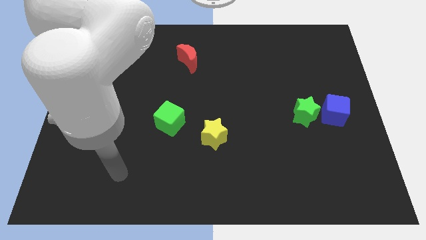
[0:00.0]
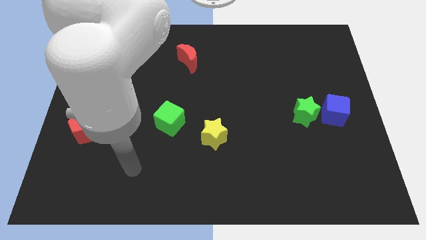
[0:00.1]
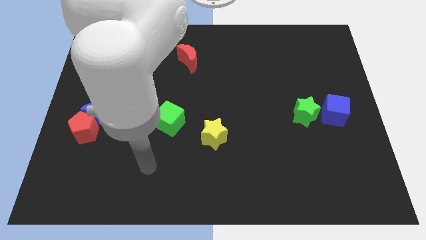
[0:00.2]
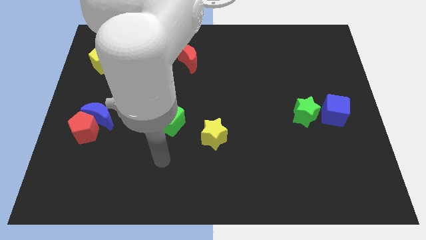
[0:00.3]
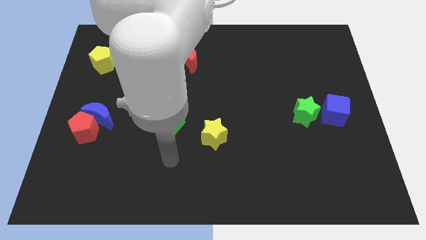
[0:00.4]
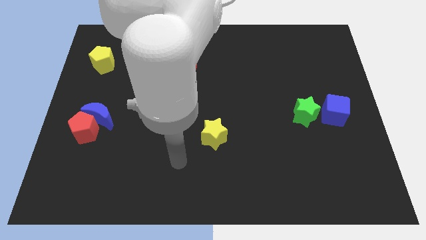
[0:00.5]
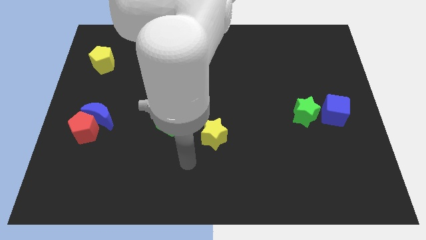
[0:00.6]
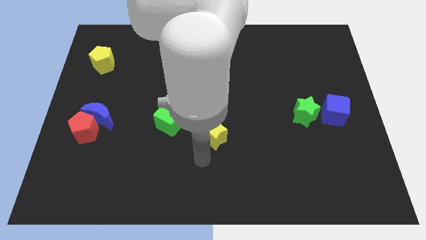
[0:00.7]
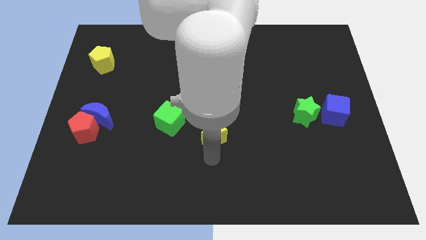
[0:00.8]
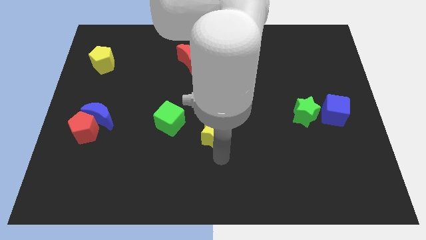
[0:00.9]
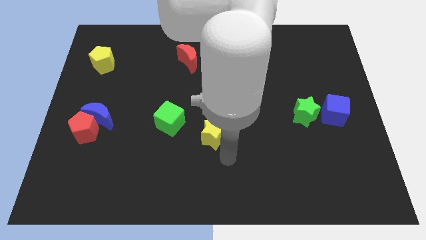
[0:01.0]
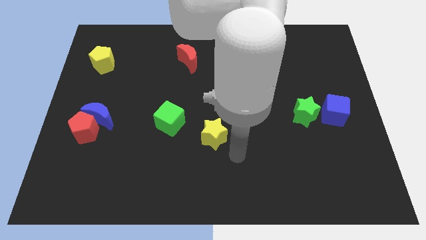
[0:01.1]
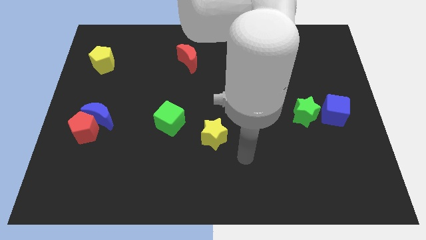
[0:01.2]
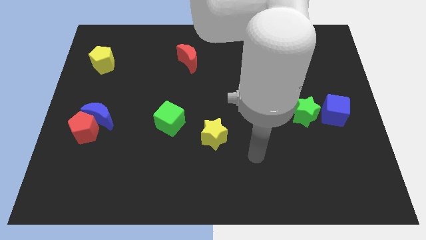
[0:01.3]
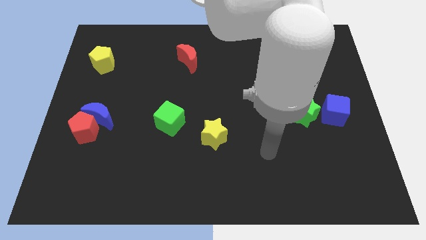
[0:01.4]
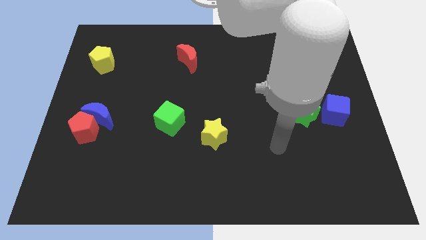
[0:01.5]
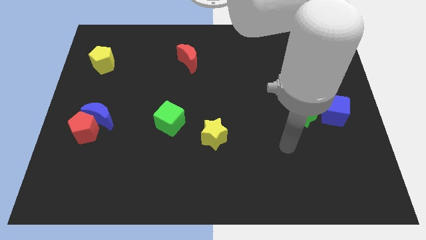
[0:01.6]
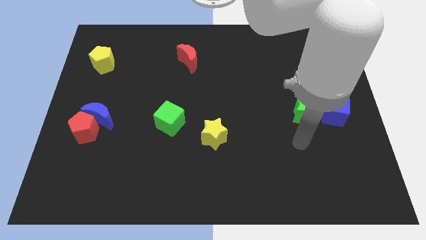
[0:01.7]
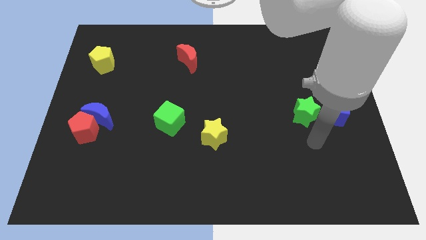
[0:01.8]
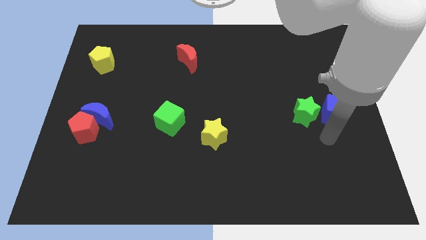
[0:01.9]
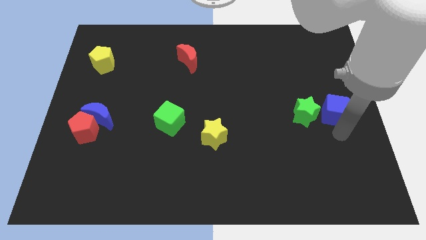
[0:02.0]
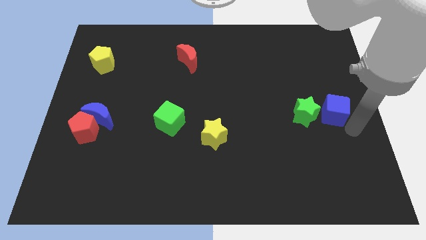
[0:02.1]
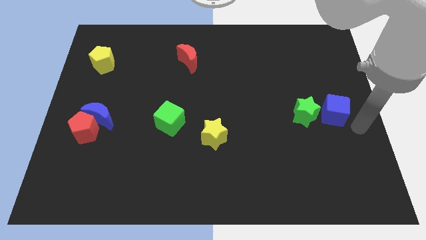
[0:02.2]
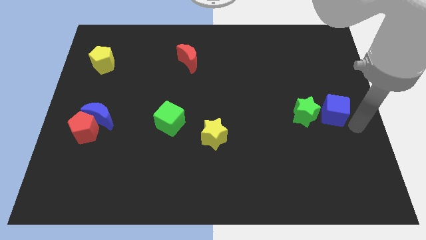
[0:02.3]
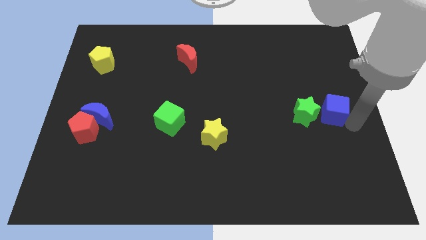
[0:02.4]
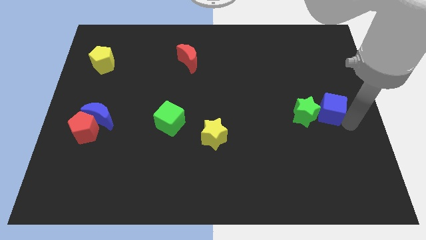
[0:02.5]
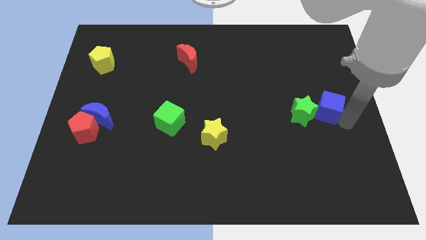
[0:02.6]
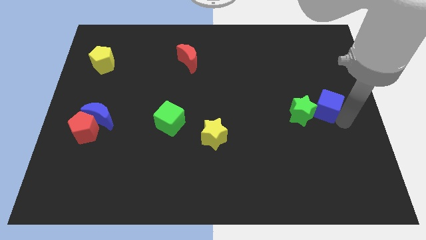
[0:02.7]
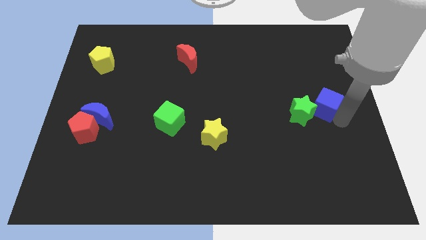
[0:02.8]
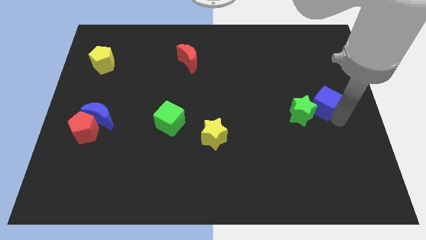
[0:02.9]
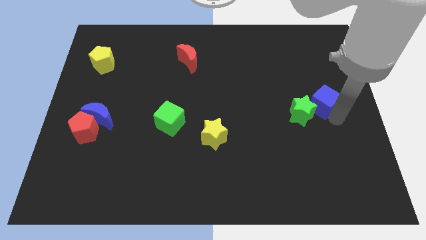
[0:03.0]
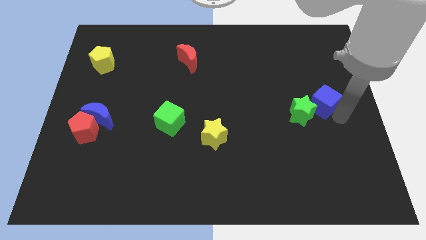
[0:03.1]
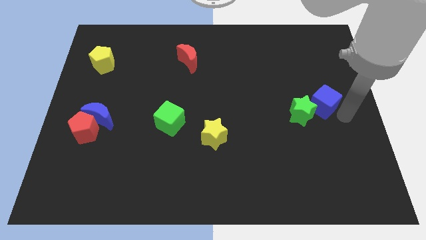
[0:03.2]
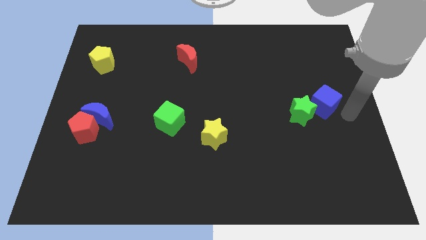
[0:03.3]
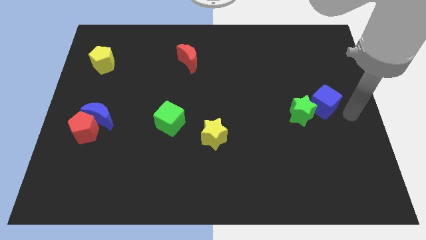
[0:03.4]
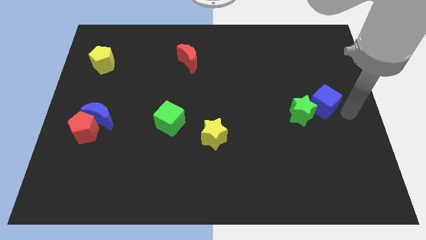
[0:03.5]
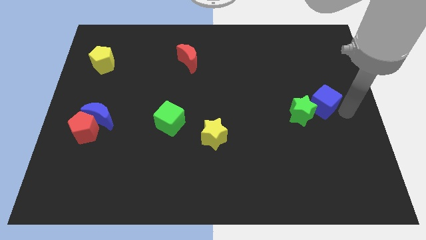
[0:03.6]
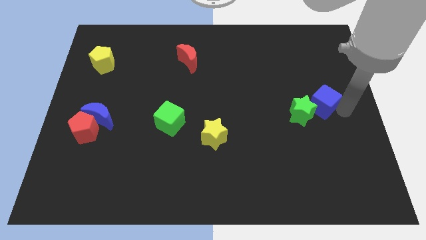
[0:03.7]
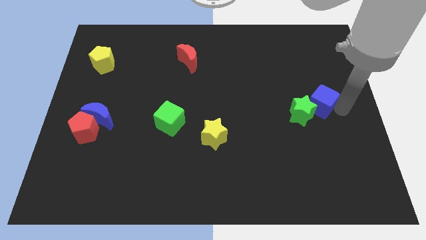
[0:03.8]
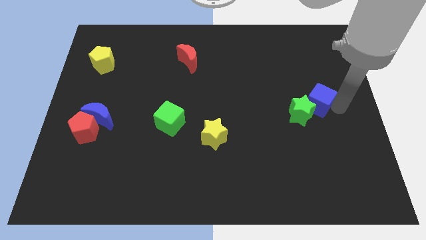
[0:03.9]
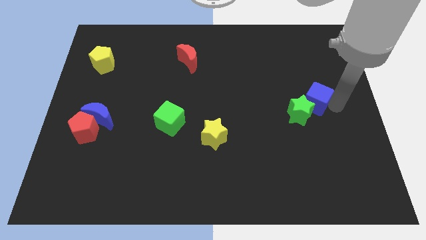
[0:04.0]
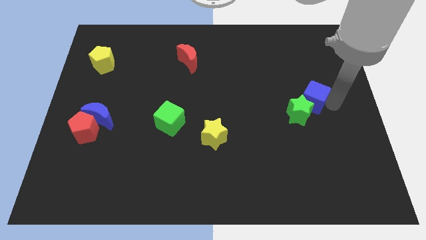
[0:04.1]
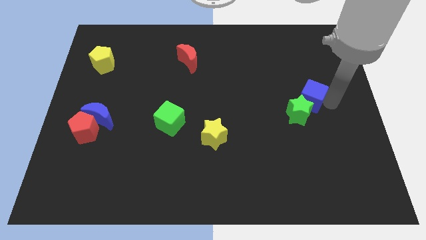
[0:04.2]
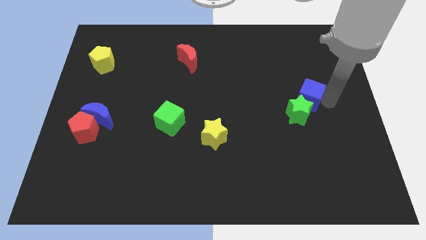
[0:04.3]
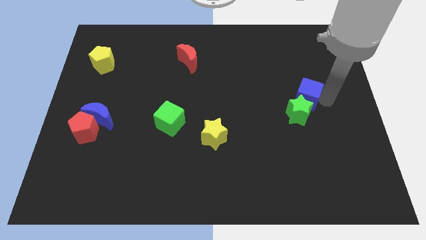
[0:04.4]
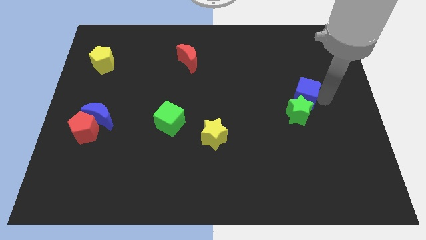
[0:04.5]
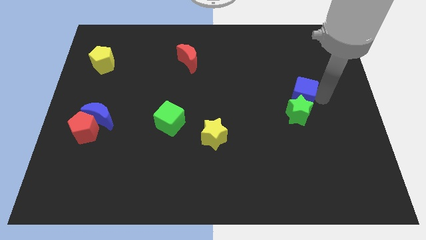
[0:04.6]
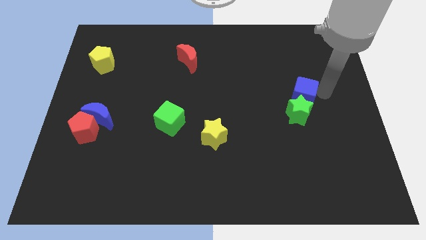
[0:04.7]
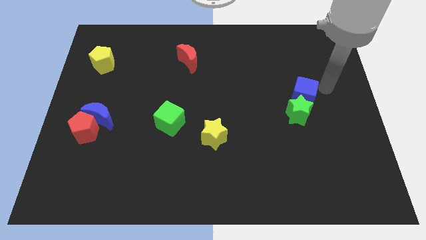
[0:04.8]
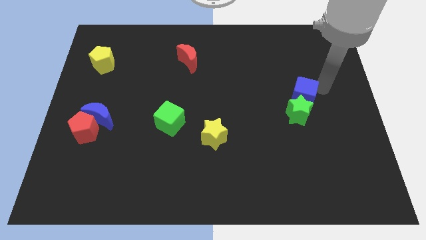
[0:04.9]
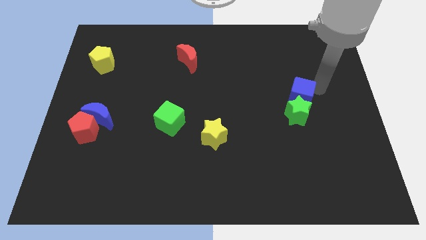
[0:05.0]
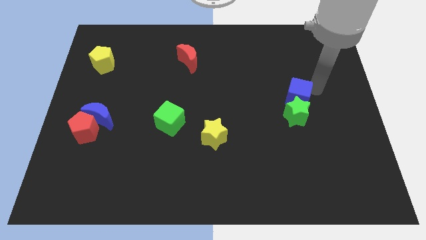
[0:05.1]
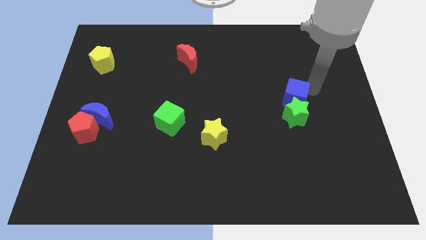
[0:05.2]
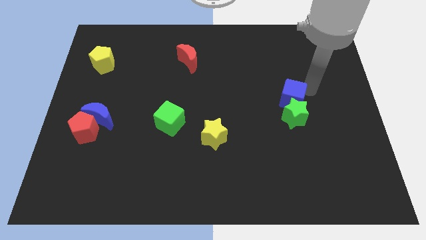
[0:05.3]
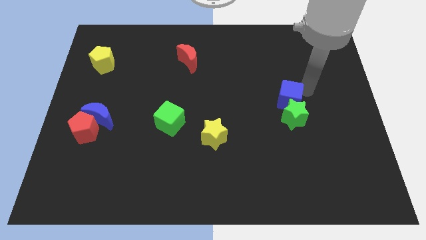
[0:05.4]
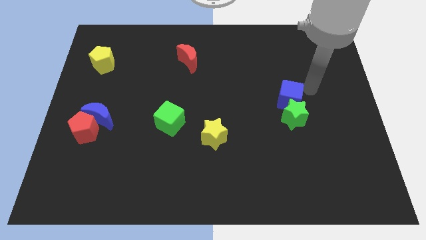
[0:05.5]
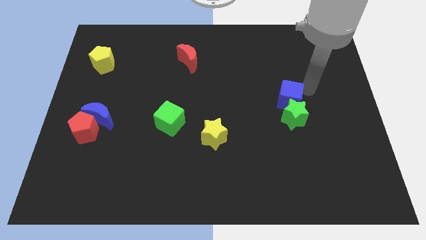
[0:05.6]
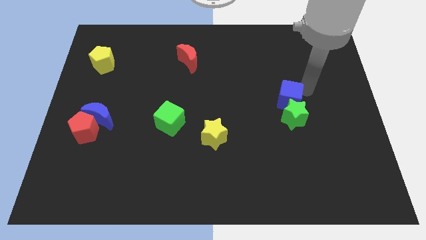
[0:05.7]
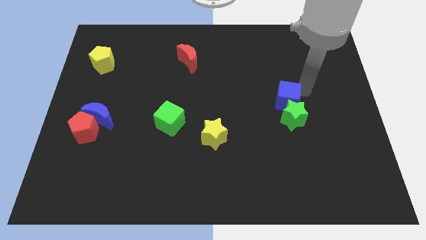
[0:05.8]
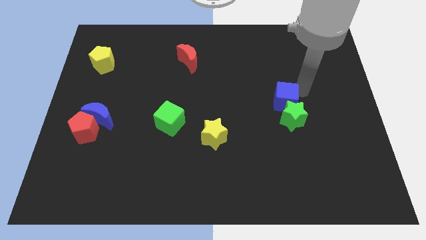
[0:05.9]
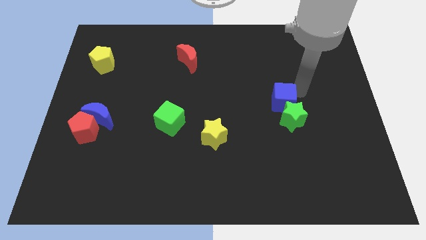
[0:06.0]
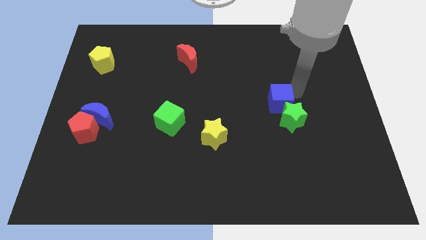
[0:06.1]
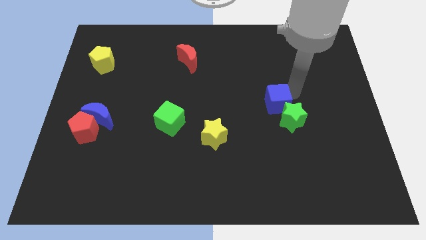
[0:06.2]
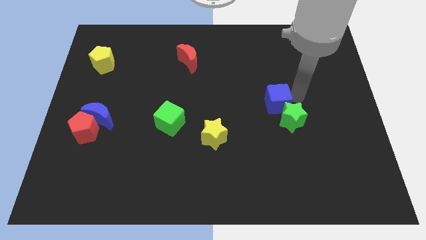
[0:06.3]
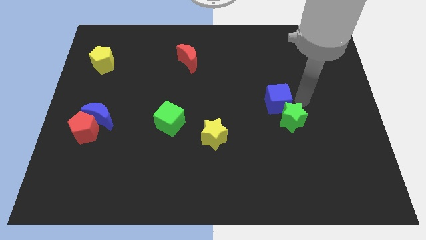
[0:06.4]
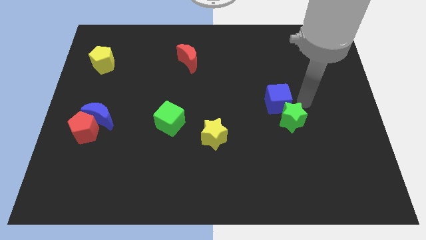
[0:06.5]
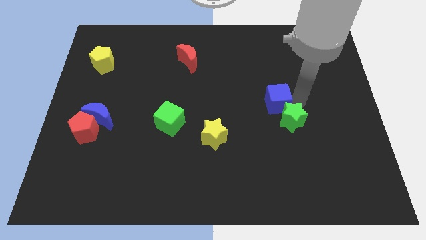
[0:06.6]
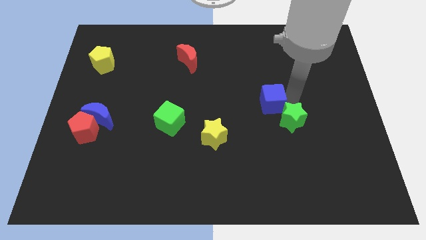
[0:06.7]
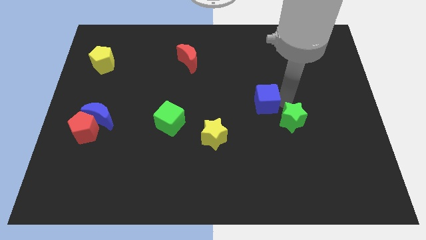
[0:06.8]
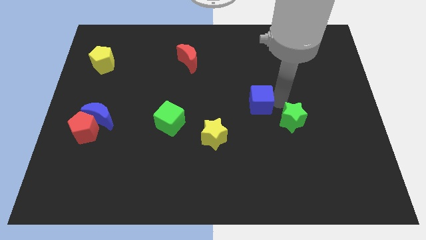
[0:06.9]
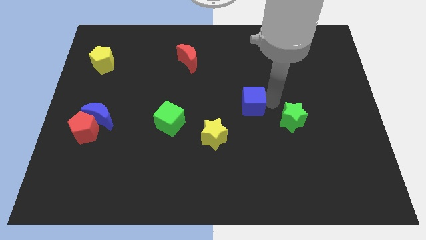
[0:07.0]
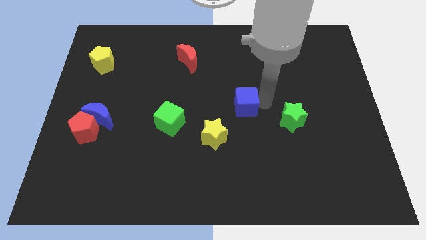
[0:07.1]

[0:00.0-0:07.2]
move the blue cube left

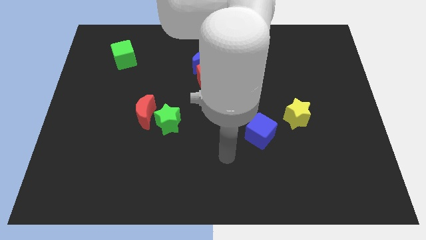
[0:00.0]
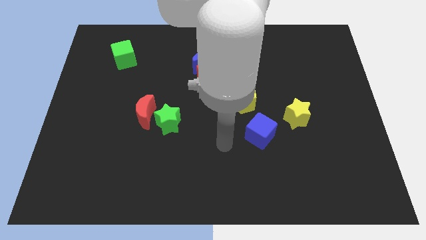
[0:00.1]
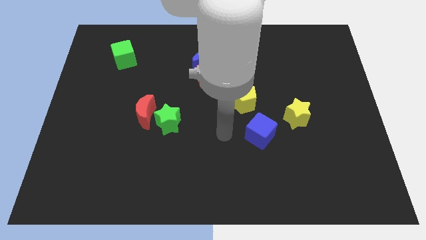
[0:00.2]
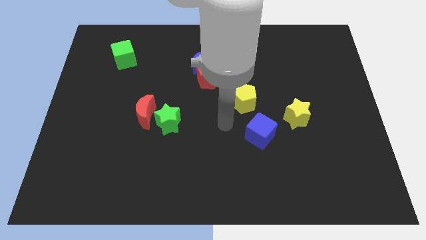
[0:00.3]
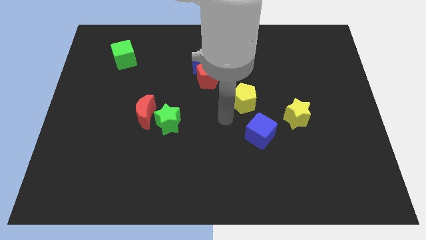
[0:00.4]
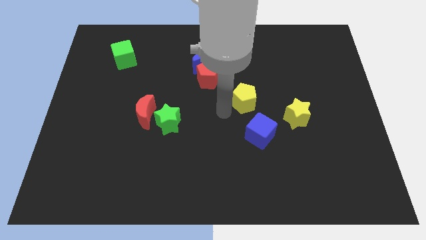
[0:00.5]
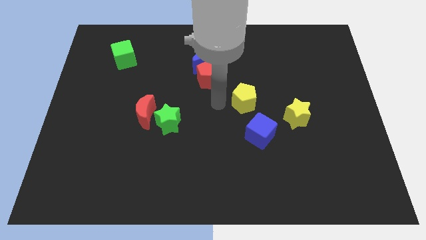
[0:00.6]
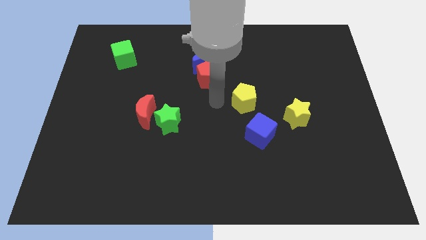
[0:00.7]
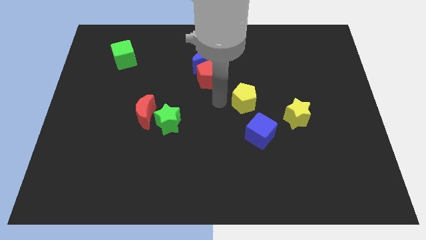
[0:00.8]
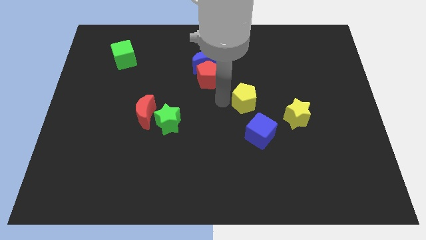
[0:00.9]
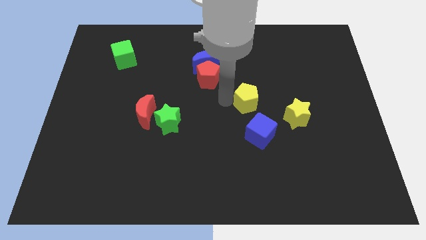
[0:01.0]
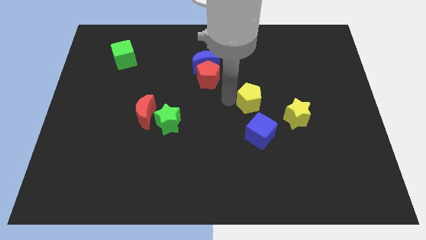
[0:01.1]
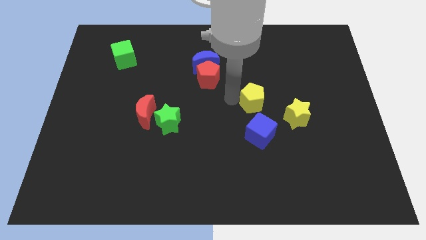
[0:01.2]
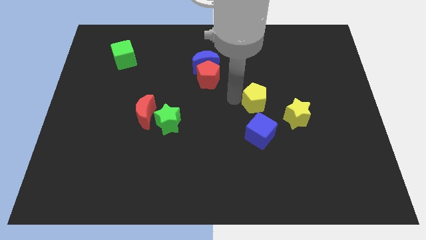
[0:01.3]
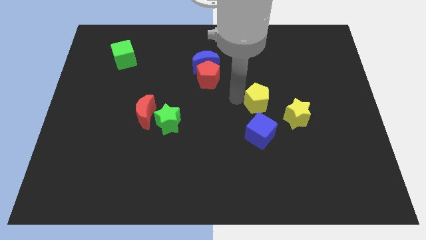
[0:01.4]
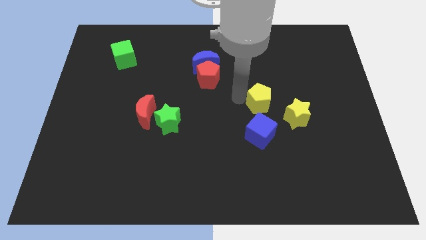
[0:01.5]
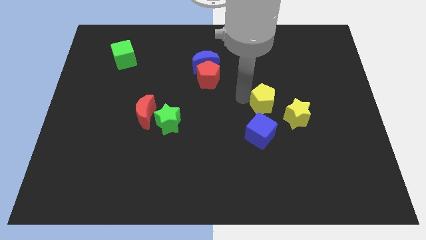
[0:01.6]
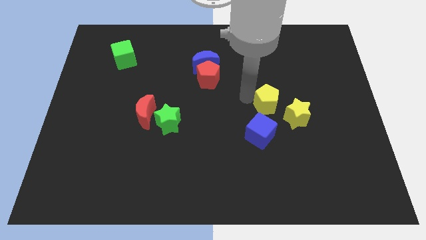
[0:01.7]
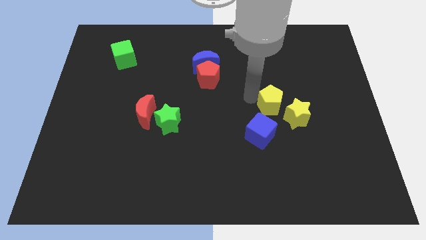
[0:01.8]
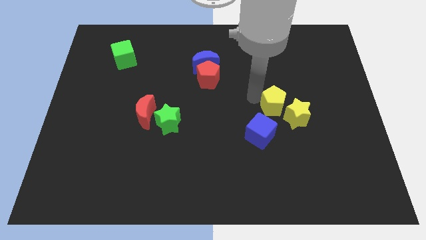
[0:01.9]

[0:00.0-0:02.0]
move the yellow pentagon right a bit
